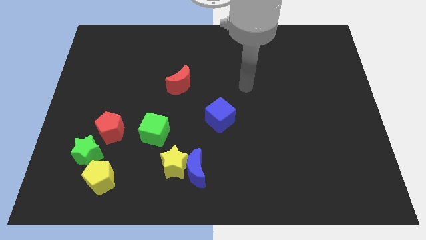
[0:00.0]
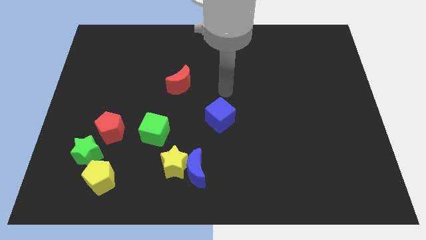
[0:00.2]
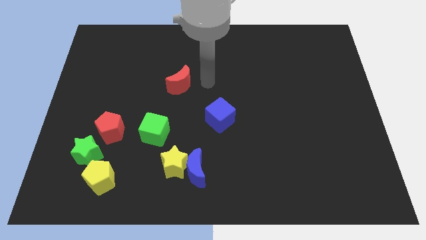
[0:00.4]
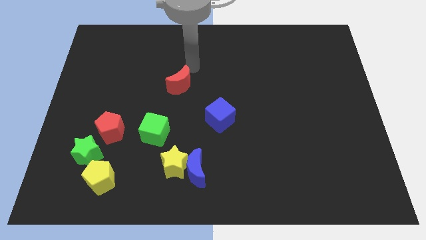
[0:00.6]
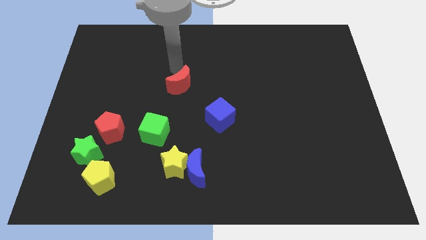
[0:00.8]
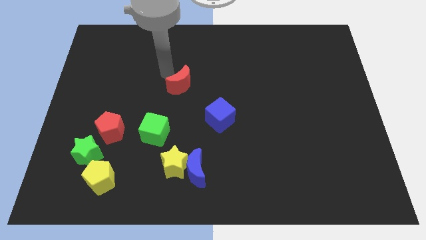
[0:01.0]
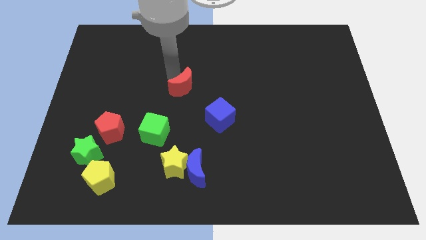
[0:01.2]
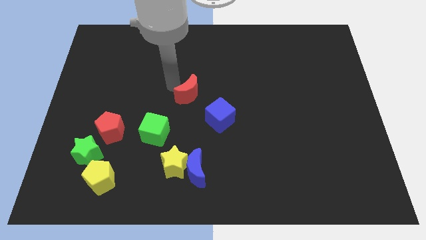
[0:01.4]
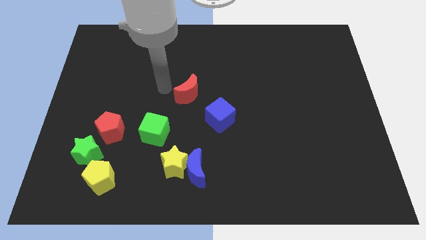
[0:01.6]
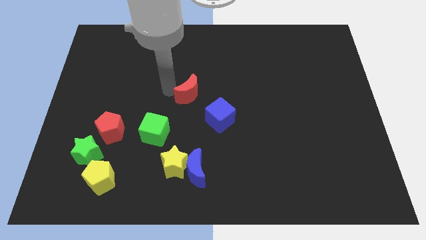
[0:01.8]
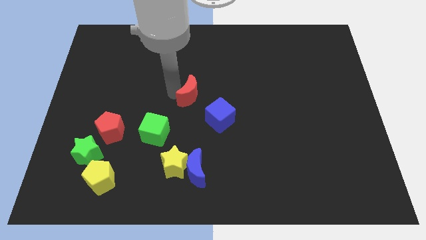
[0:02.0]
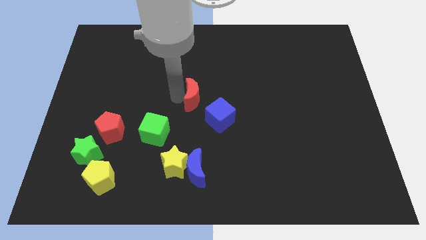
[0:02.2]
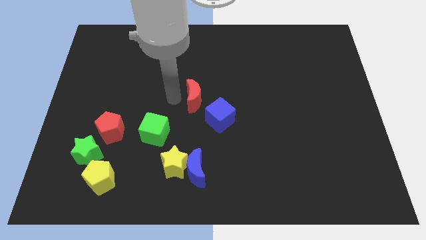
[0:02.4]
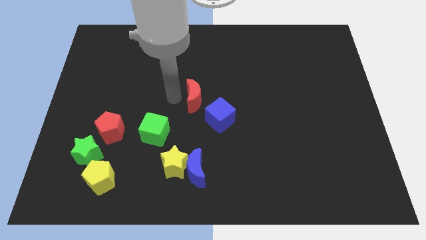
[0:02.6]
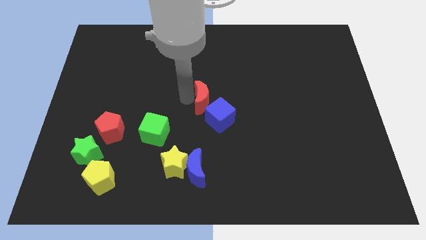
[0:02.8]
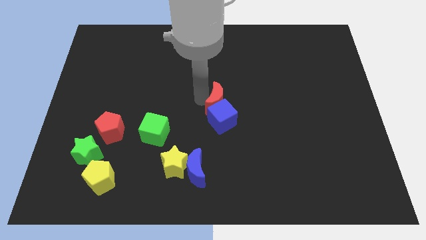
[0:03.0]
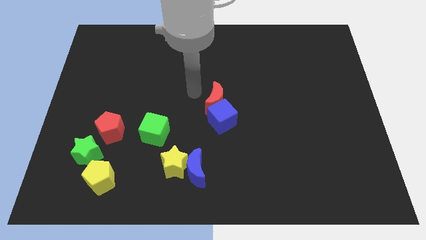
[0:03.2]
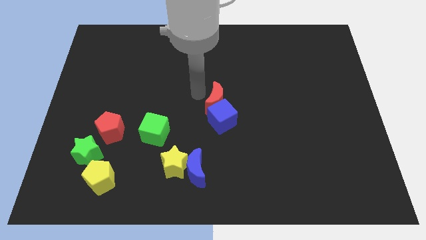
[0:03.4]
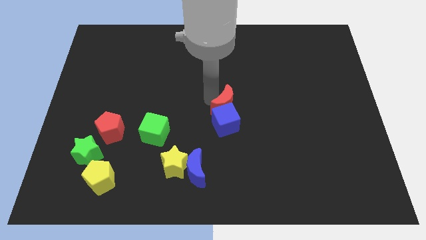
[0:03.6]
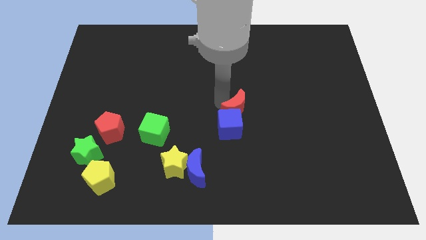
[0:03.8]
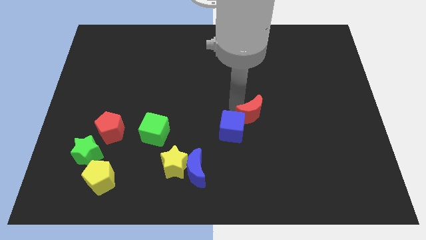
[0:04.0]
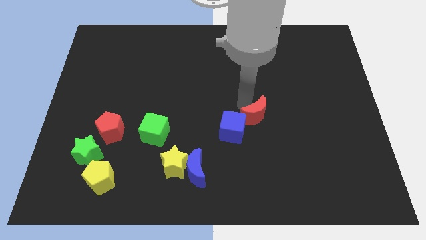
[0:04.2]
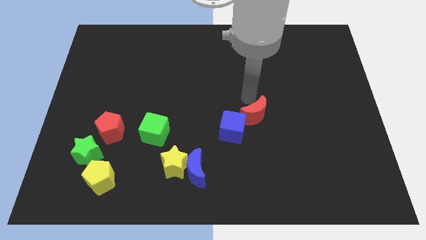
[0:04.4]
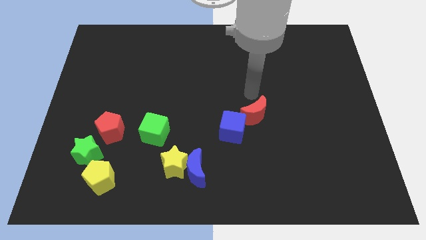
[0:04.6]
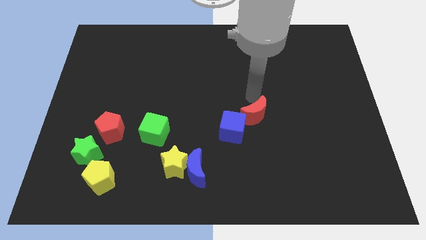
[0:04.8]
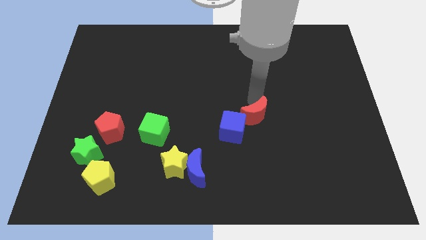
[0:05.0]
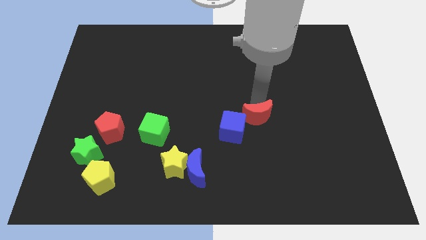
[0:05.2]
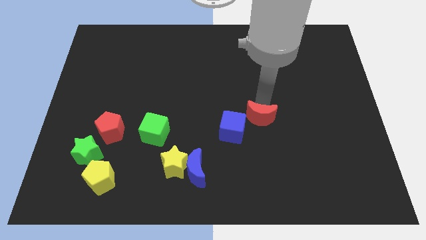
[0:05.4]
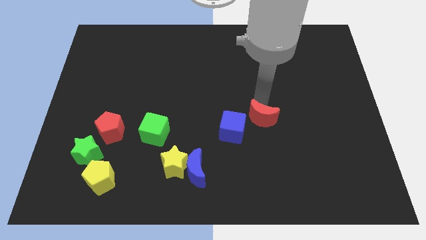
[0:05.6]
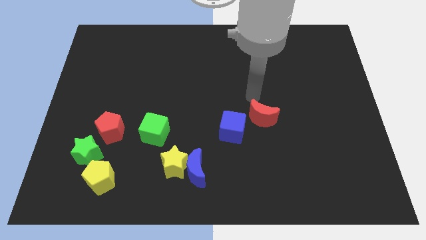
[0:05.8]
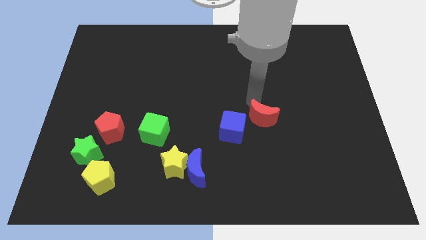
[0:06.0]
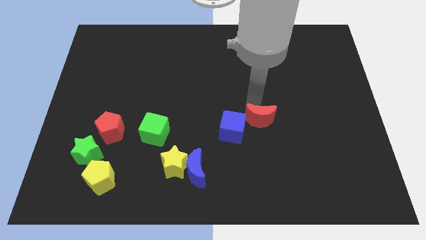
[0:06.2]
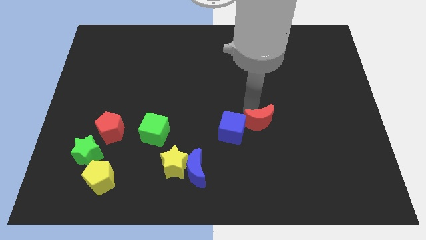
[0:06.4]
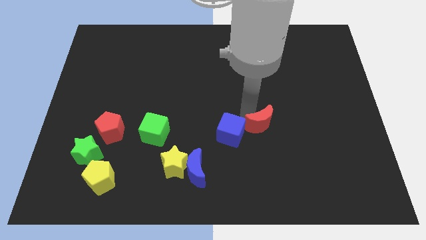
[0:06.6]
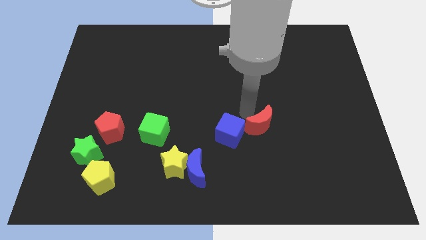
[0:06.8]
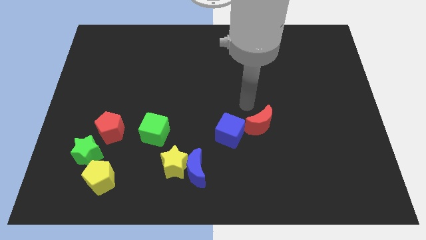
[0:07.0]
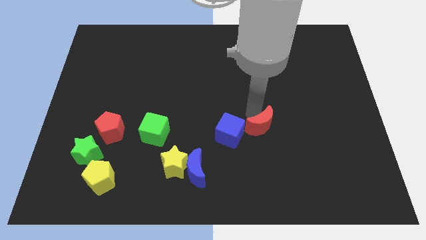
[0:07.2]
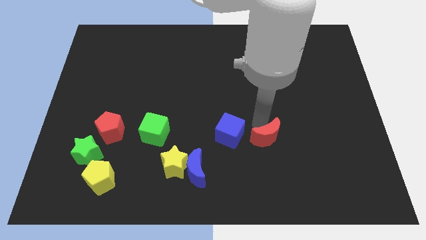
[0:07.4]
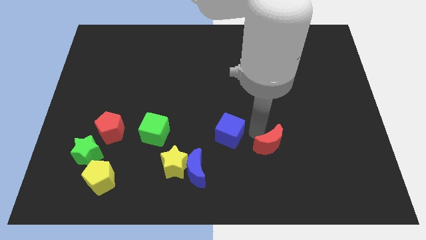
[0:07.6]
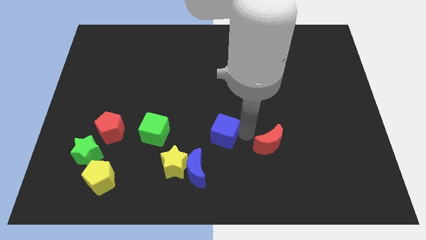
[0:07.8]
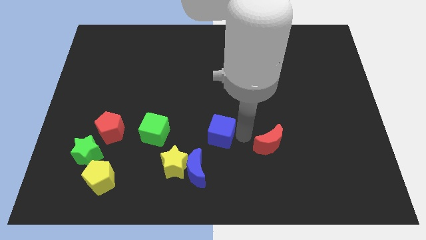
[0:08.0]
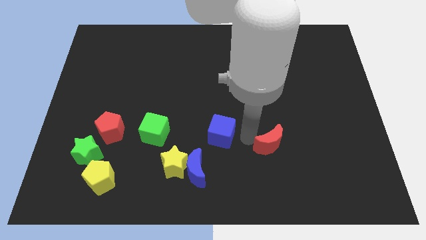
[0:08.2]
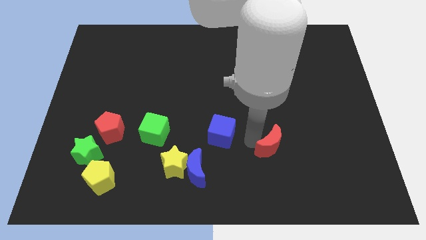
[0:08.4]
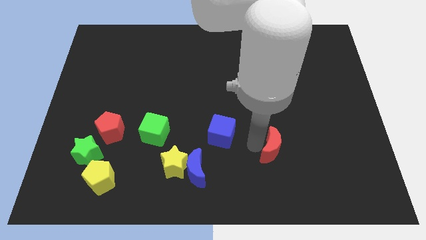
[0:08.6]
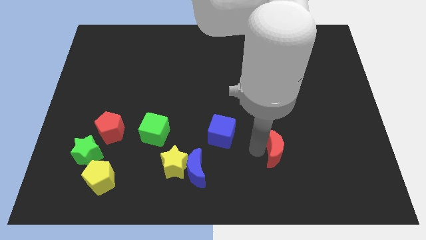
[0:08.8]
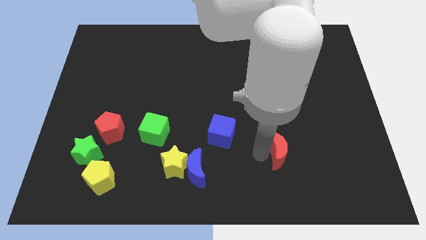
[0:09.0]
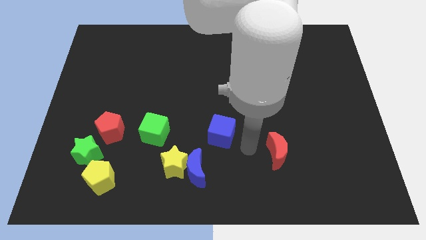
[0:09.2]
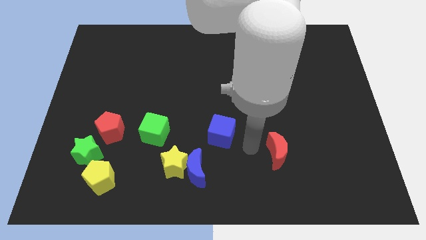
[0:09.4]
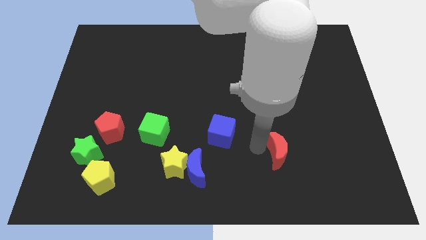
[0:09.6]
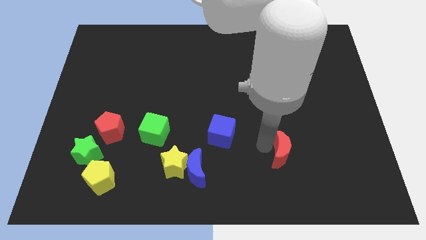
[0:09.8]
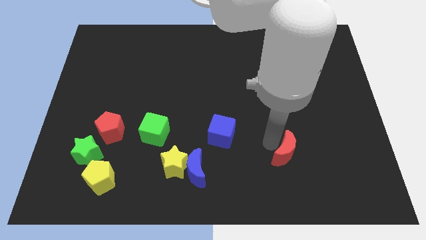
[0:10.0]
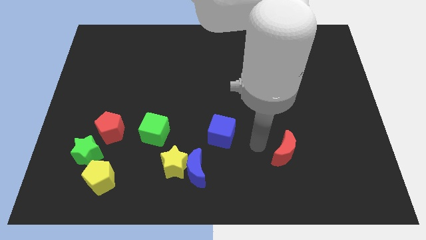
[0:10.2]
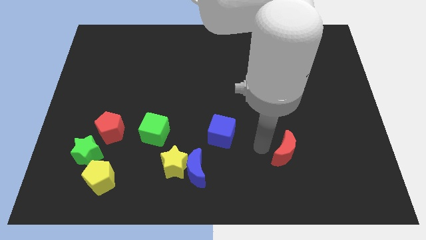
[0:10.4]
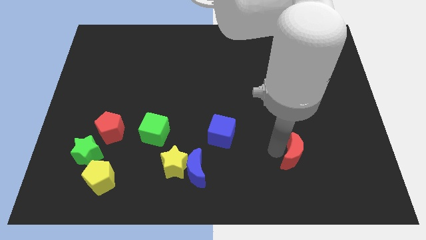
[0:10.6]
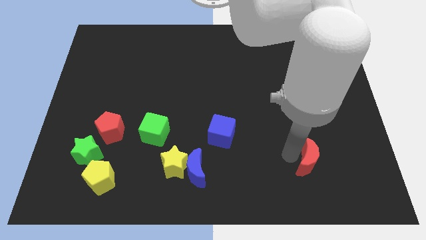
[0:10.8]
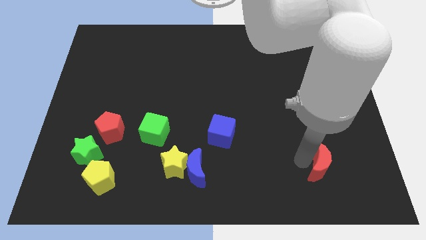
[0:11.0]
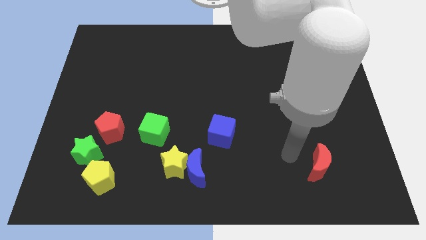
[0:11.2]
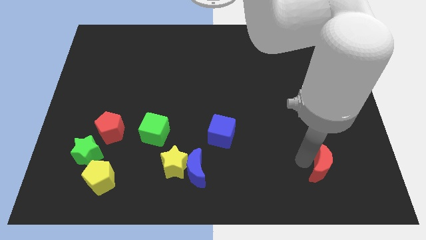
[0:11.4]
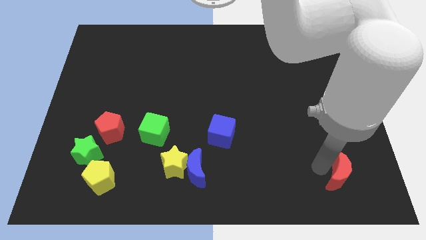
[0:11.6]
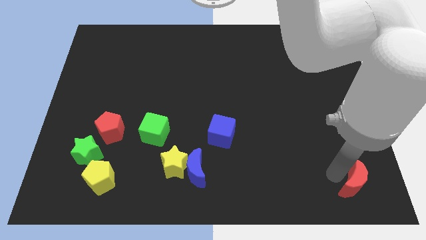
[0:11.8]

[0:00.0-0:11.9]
move the red moon to the bottom right of the board

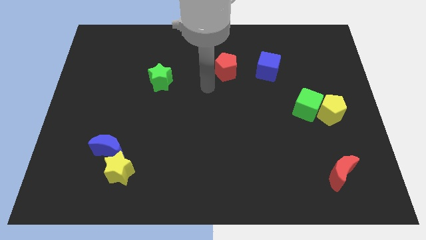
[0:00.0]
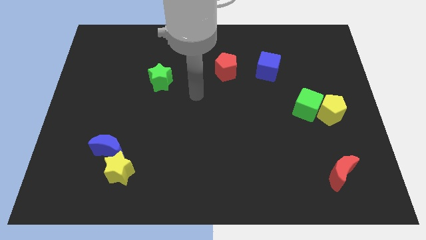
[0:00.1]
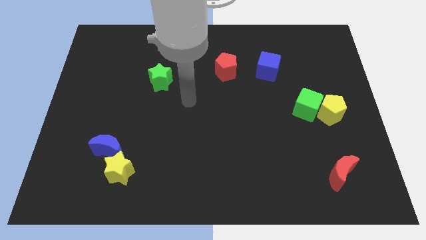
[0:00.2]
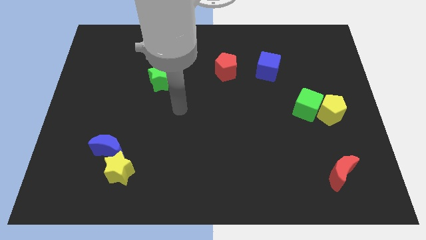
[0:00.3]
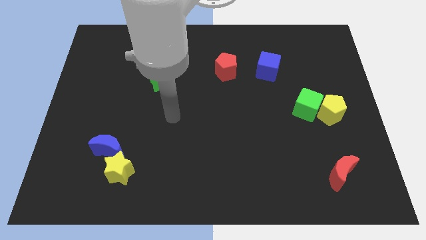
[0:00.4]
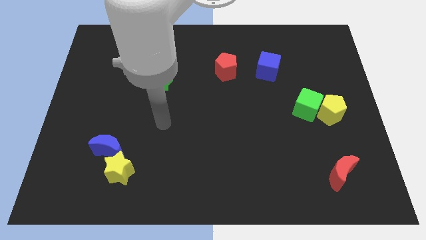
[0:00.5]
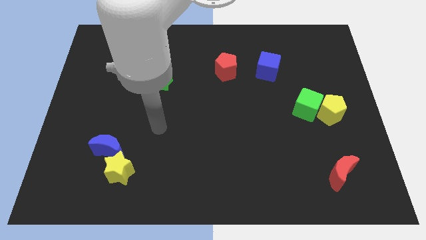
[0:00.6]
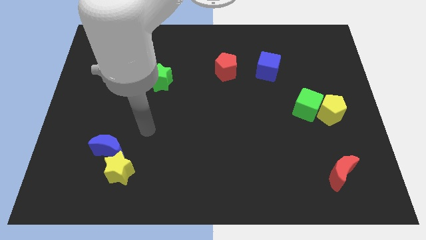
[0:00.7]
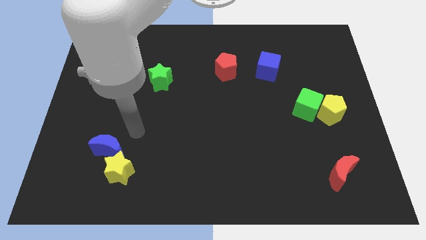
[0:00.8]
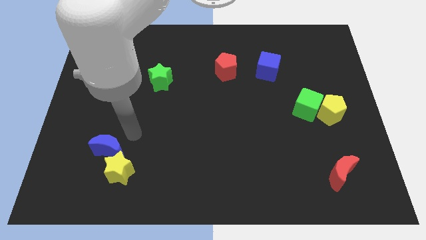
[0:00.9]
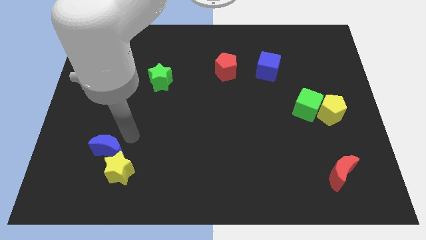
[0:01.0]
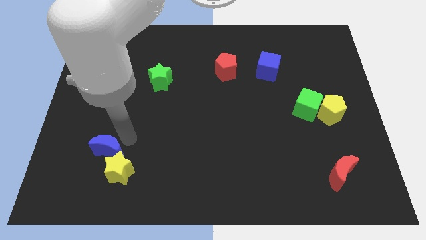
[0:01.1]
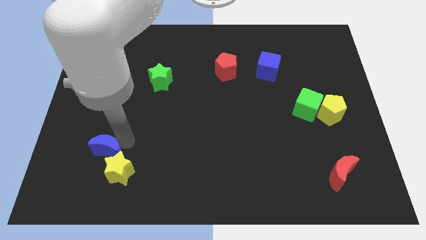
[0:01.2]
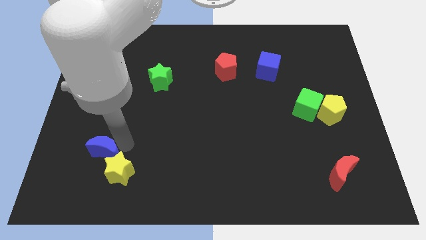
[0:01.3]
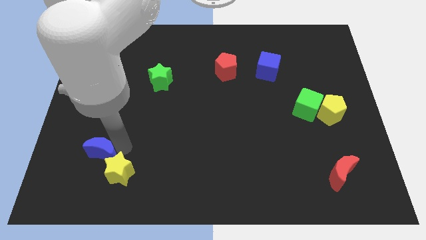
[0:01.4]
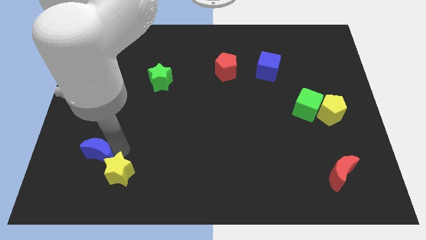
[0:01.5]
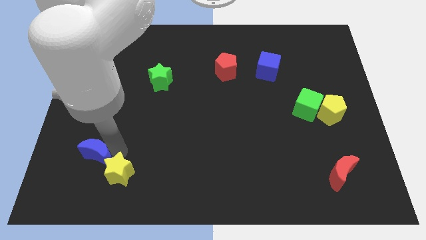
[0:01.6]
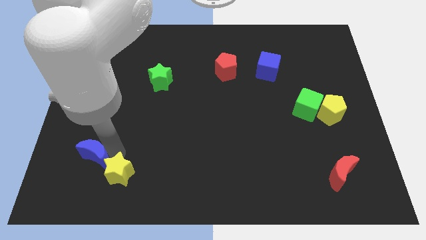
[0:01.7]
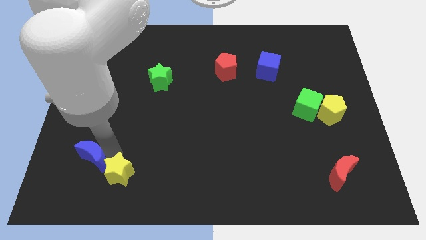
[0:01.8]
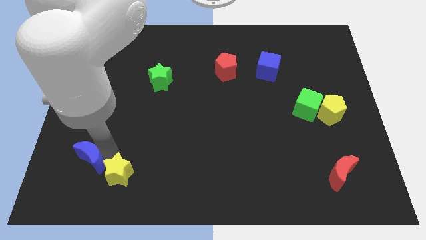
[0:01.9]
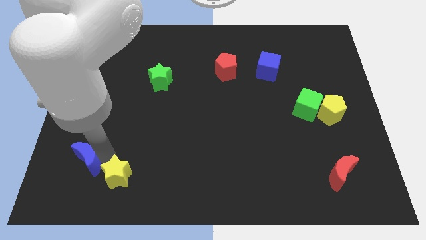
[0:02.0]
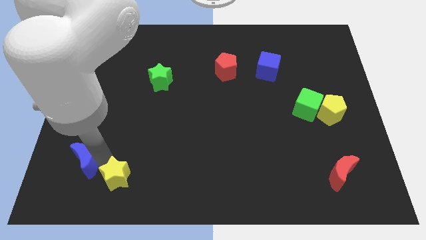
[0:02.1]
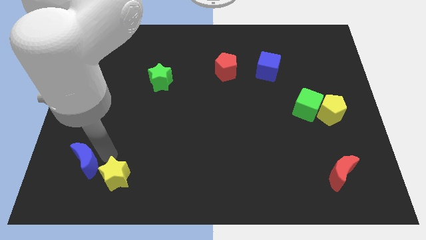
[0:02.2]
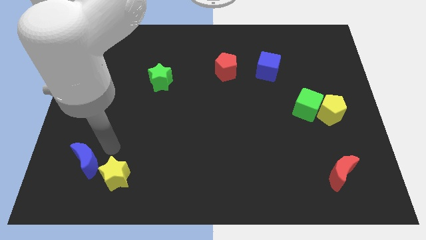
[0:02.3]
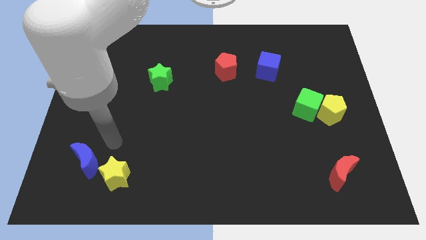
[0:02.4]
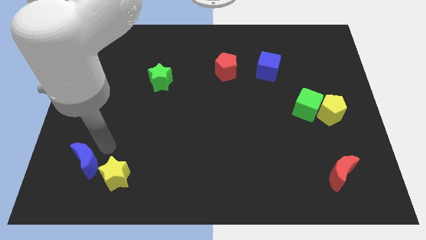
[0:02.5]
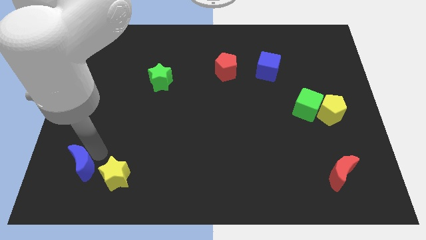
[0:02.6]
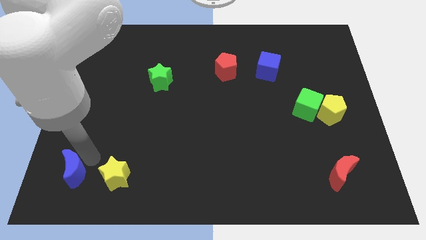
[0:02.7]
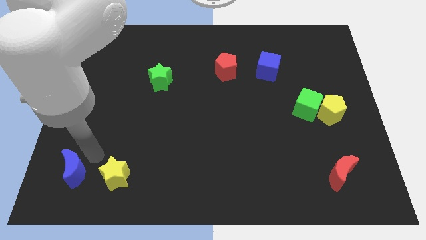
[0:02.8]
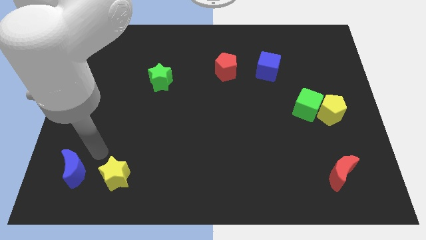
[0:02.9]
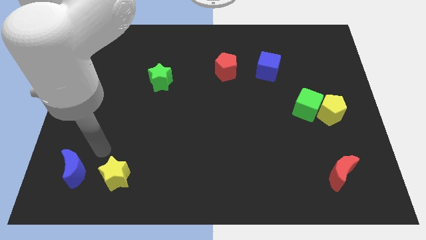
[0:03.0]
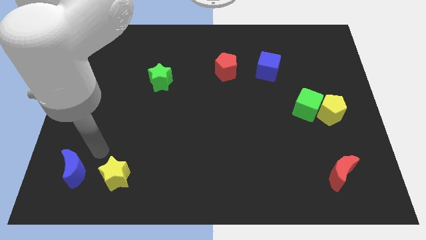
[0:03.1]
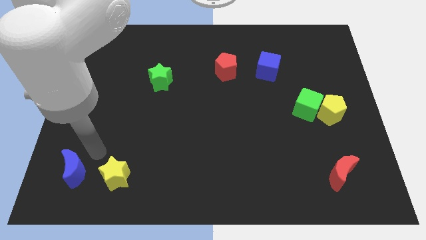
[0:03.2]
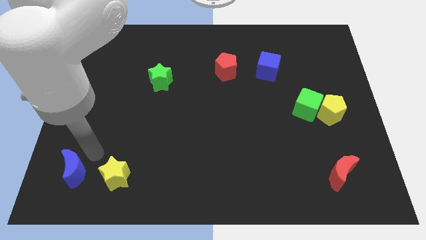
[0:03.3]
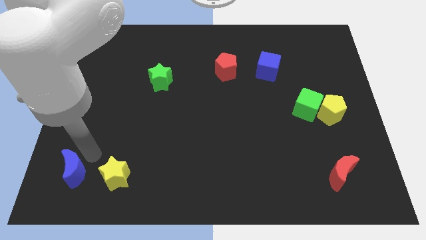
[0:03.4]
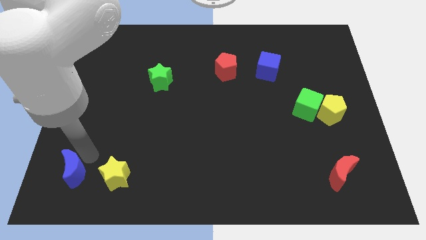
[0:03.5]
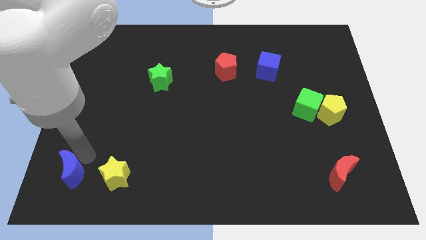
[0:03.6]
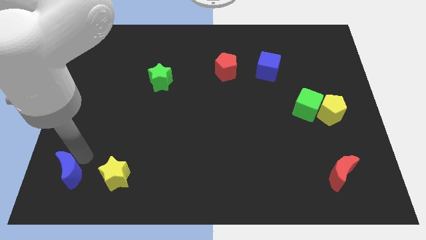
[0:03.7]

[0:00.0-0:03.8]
push the blue moon to the bottom left of the board
